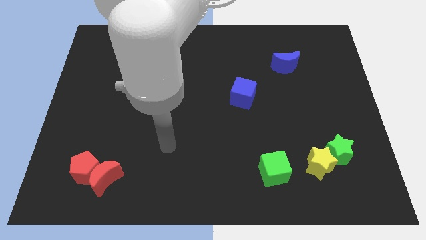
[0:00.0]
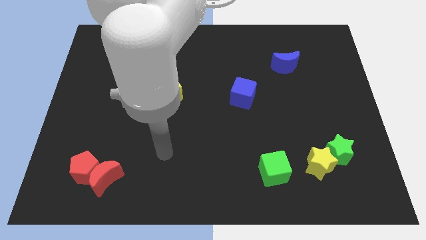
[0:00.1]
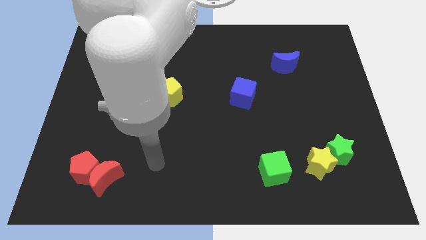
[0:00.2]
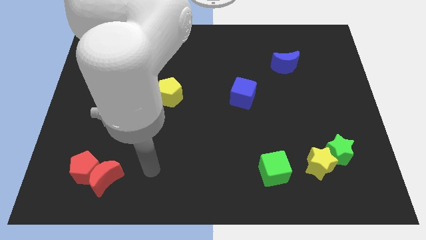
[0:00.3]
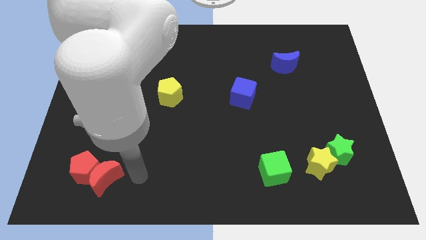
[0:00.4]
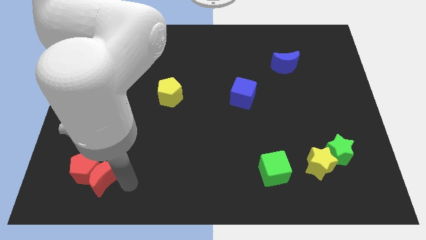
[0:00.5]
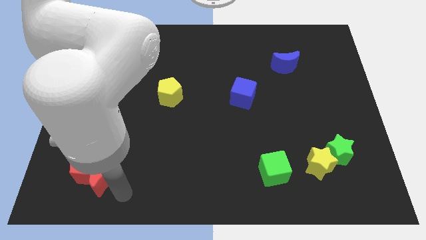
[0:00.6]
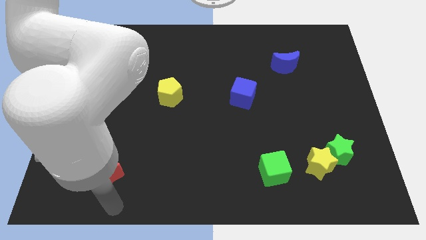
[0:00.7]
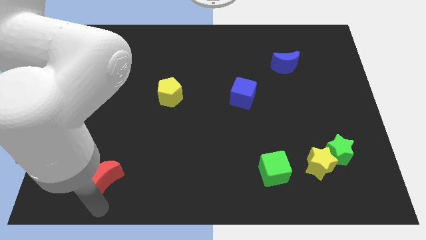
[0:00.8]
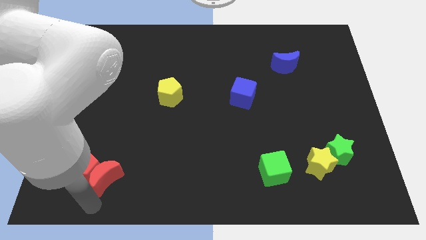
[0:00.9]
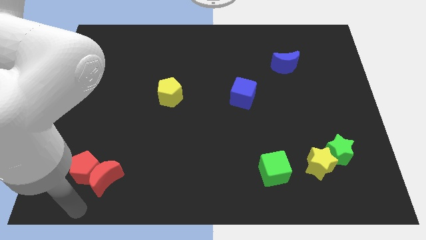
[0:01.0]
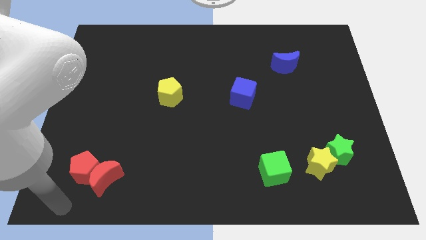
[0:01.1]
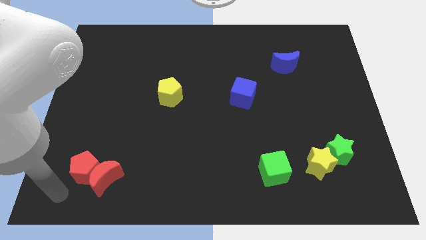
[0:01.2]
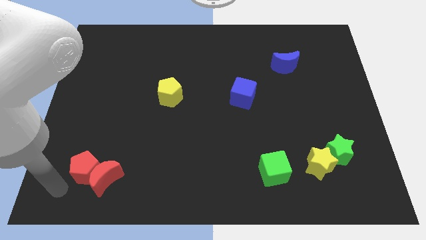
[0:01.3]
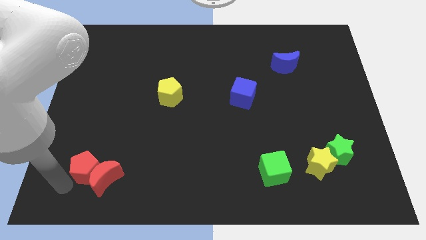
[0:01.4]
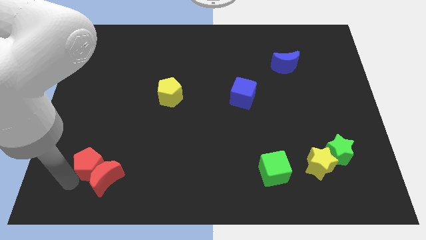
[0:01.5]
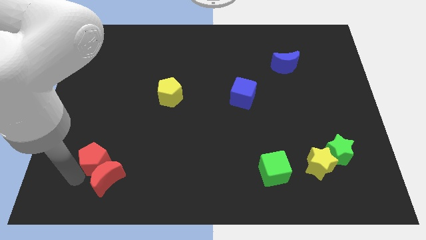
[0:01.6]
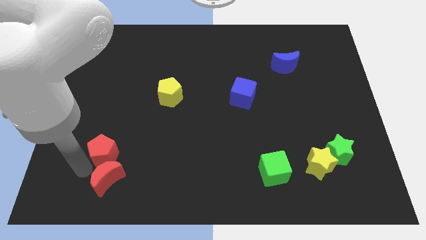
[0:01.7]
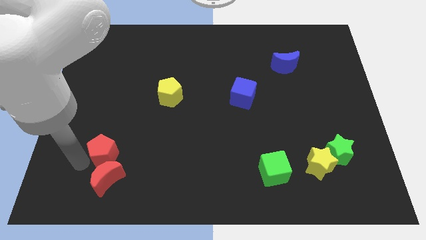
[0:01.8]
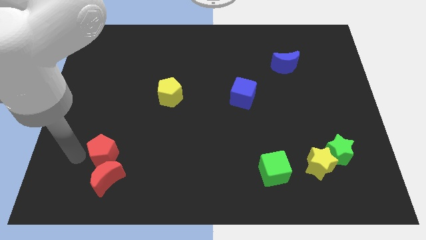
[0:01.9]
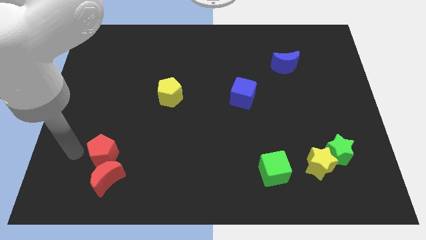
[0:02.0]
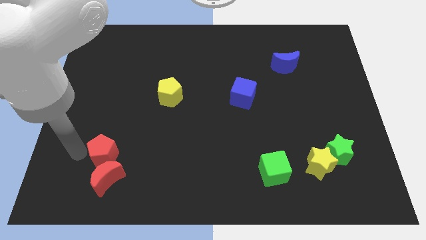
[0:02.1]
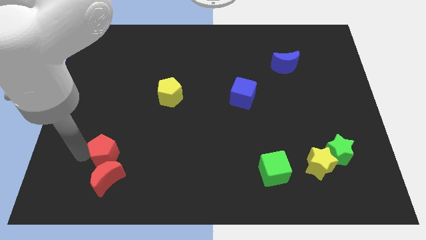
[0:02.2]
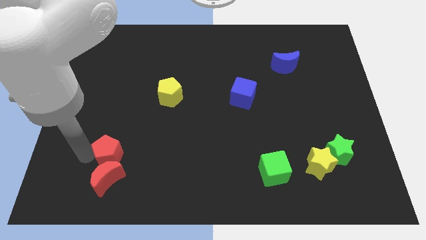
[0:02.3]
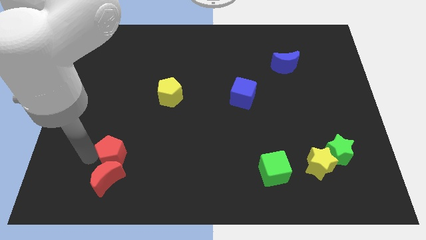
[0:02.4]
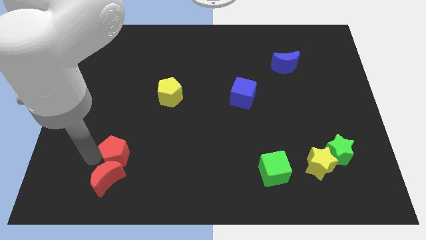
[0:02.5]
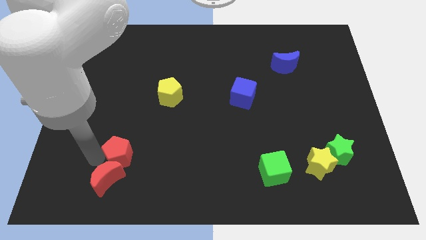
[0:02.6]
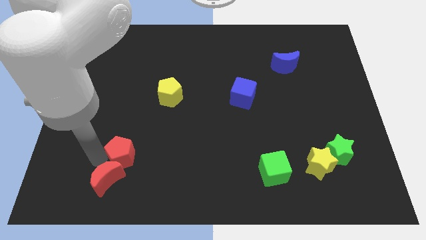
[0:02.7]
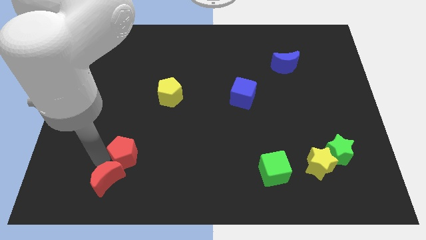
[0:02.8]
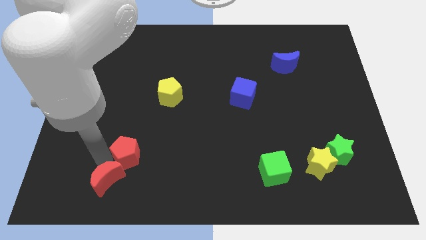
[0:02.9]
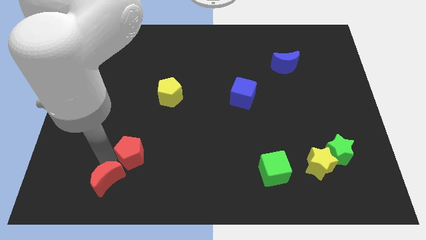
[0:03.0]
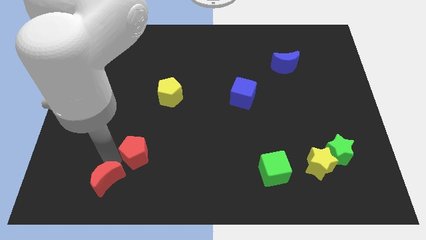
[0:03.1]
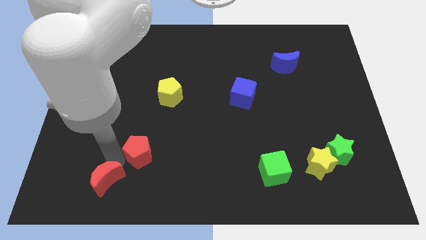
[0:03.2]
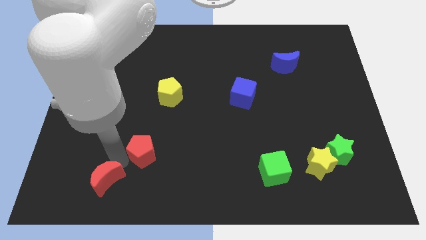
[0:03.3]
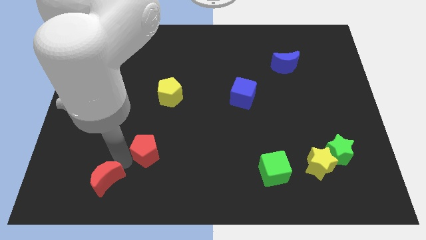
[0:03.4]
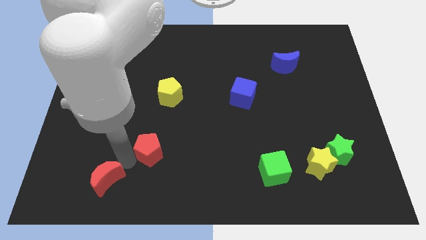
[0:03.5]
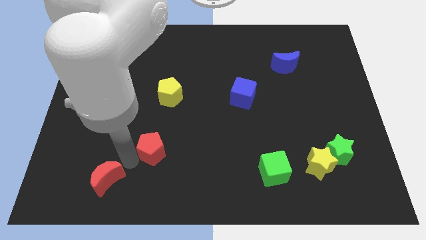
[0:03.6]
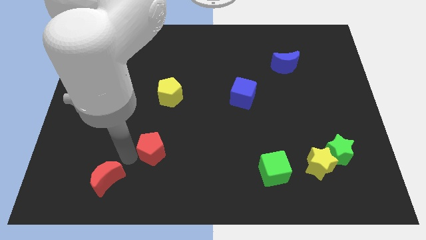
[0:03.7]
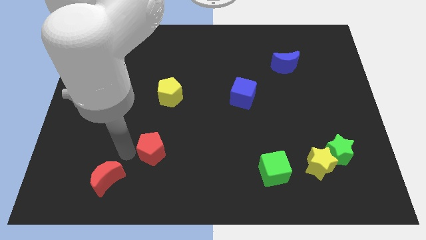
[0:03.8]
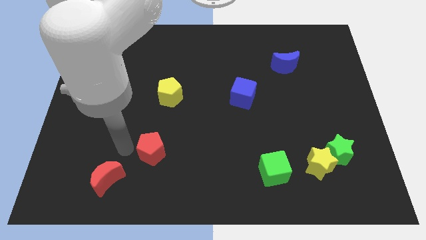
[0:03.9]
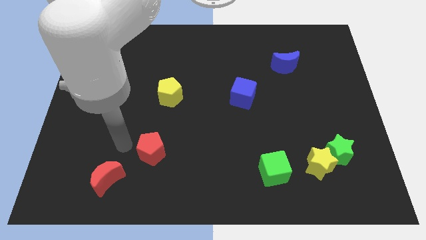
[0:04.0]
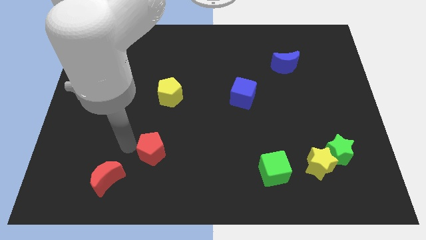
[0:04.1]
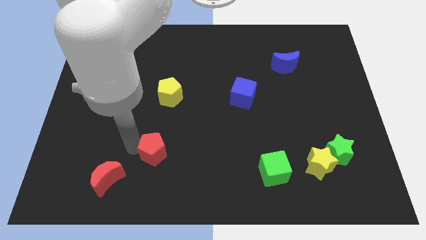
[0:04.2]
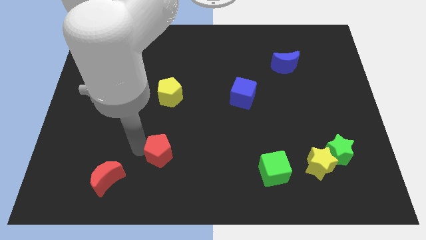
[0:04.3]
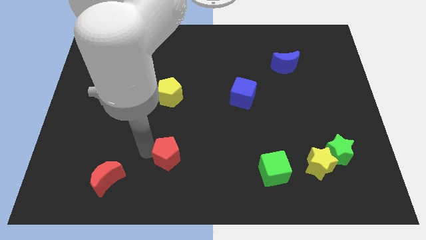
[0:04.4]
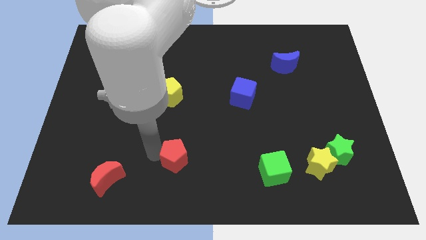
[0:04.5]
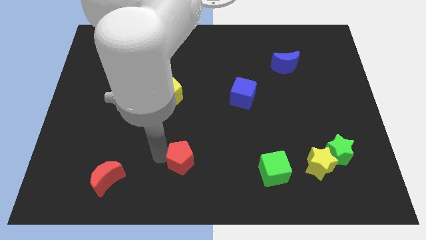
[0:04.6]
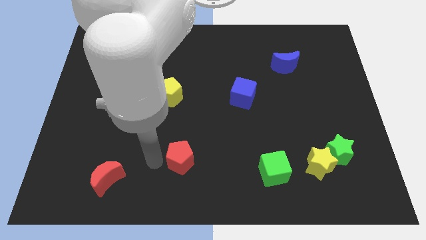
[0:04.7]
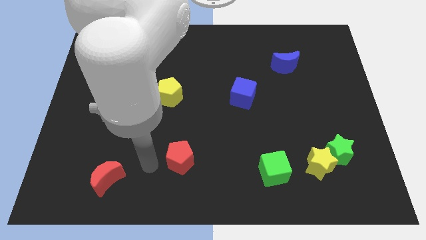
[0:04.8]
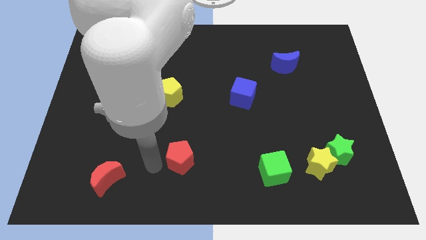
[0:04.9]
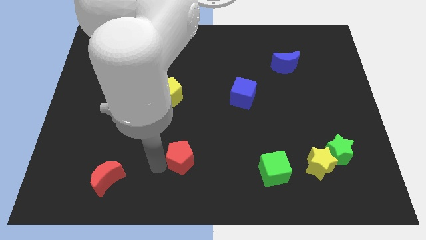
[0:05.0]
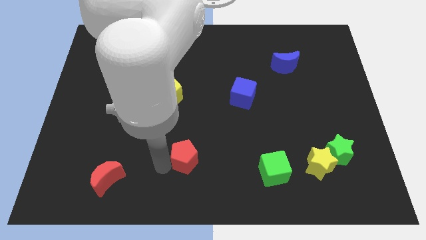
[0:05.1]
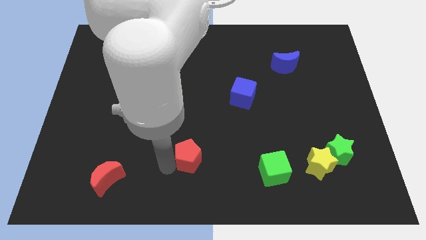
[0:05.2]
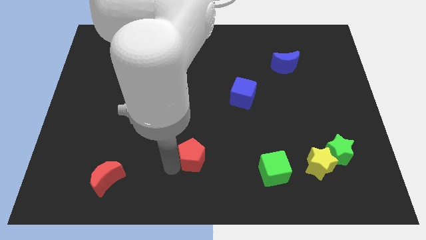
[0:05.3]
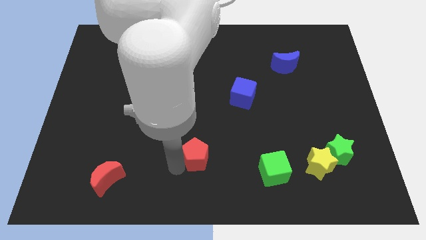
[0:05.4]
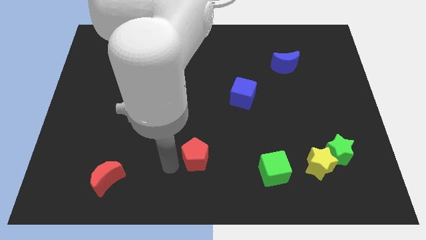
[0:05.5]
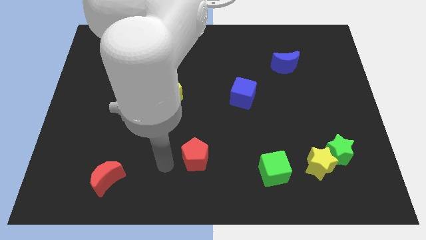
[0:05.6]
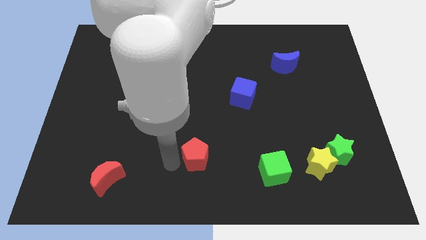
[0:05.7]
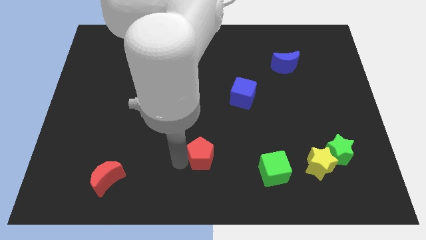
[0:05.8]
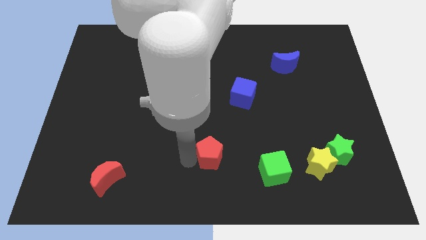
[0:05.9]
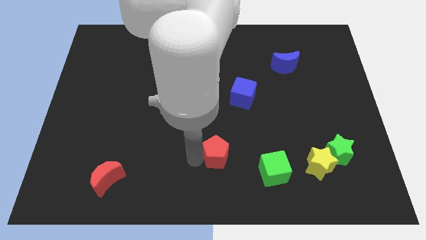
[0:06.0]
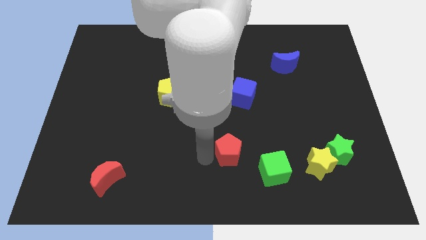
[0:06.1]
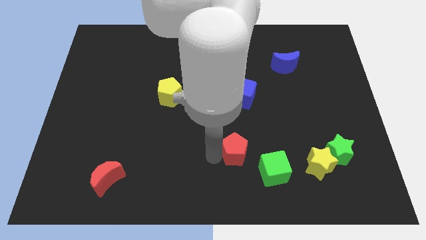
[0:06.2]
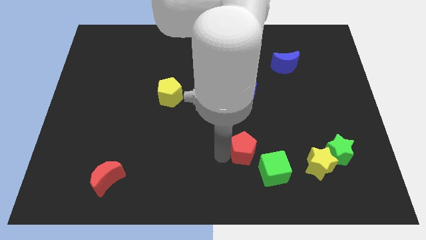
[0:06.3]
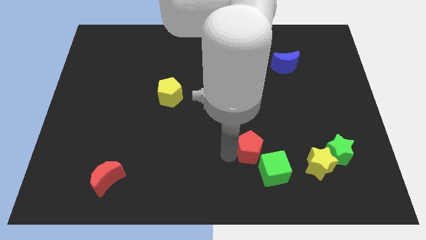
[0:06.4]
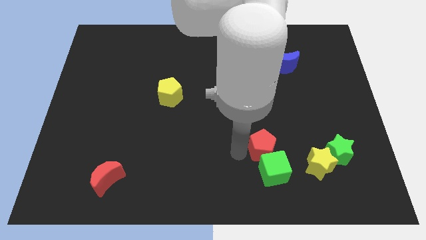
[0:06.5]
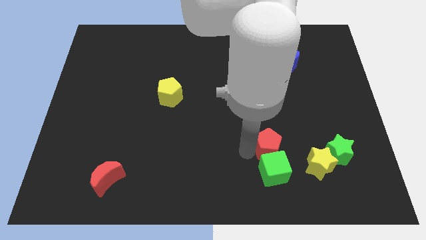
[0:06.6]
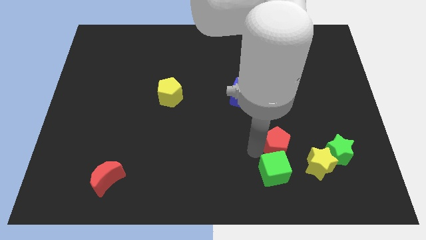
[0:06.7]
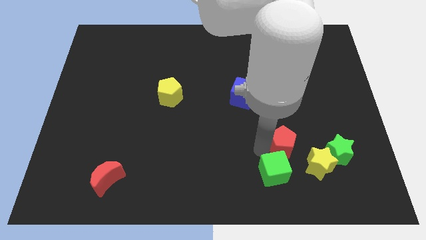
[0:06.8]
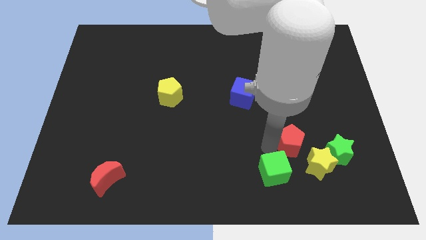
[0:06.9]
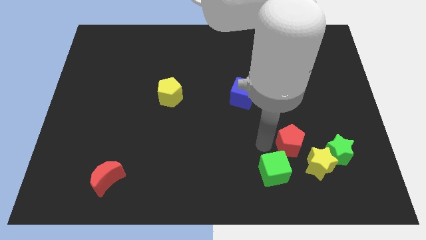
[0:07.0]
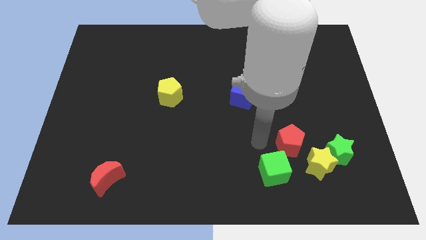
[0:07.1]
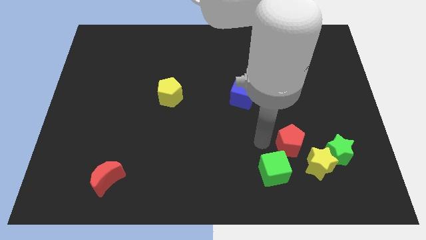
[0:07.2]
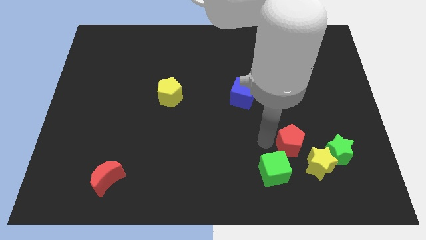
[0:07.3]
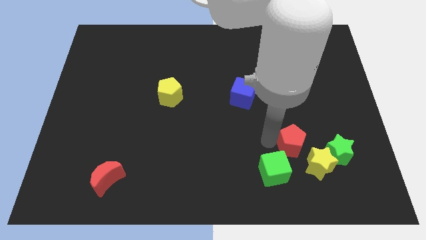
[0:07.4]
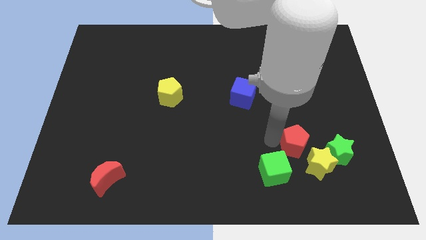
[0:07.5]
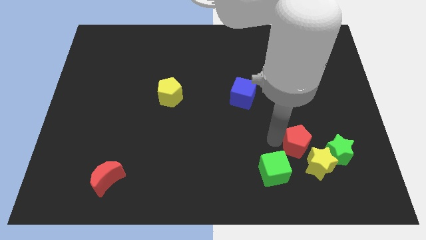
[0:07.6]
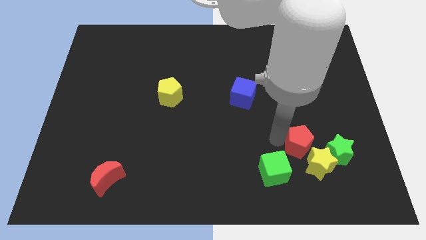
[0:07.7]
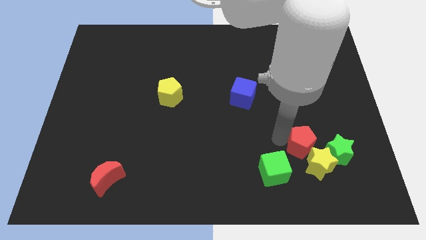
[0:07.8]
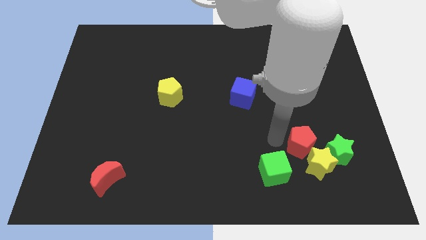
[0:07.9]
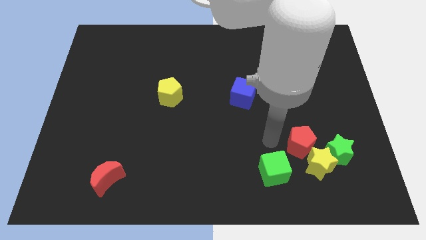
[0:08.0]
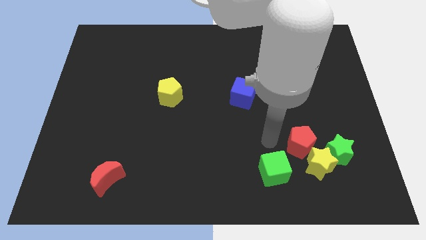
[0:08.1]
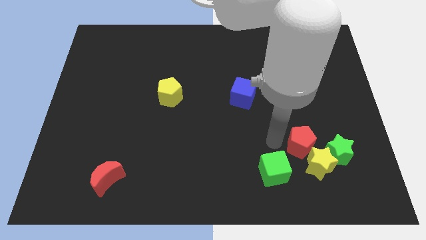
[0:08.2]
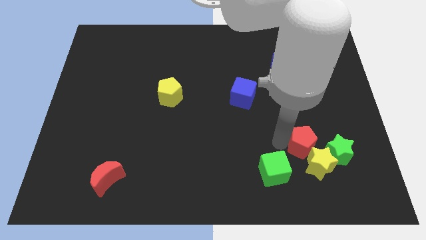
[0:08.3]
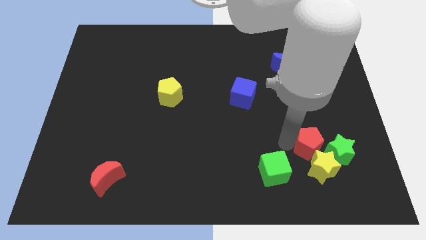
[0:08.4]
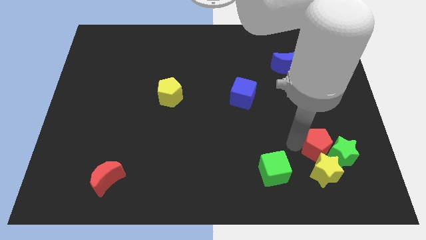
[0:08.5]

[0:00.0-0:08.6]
slide the red pentagon towards the green star
